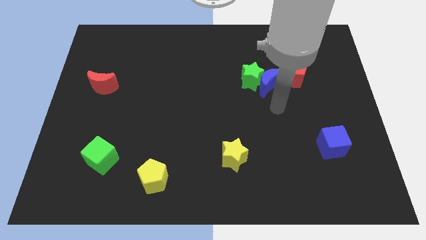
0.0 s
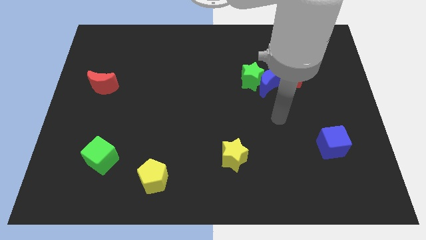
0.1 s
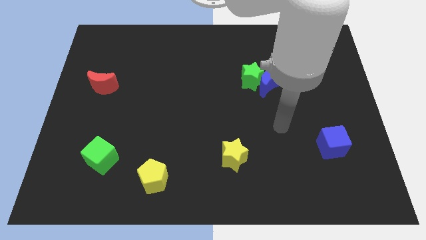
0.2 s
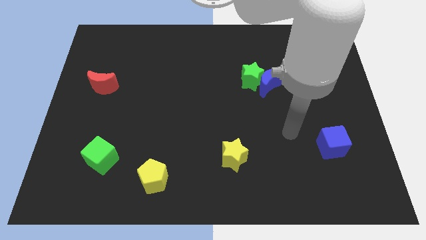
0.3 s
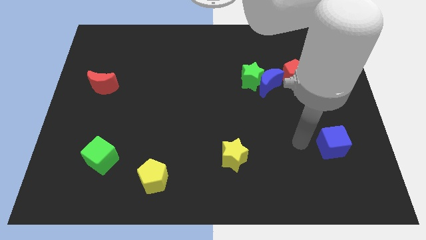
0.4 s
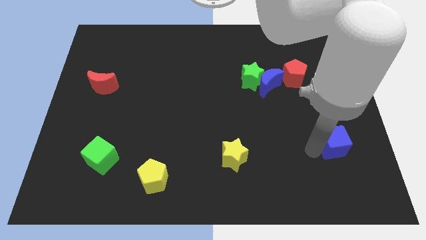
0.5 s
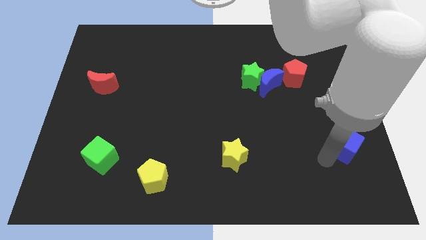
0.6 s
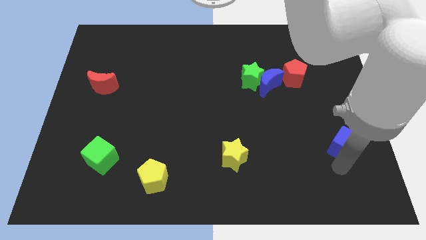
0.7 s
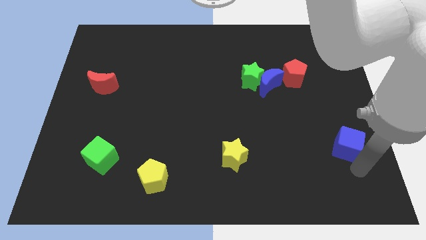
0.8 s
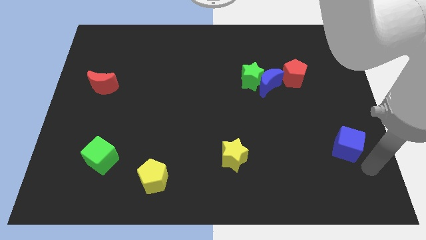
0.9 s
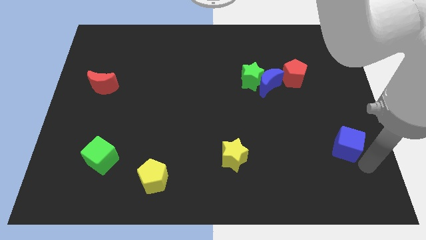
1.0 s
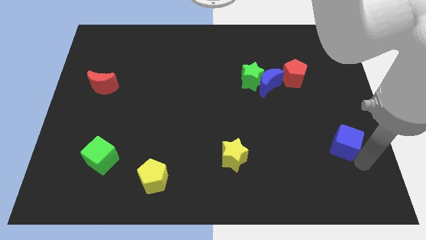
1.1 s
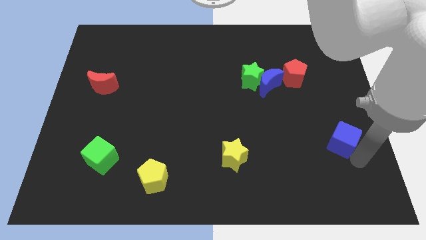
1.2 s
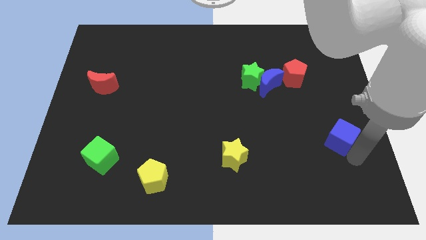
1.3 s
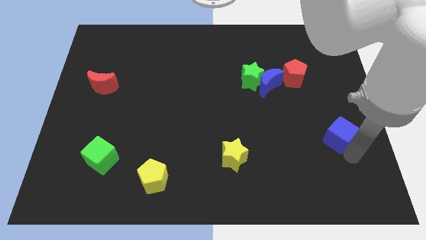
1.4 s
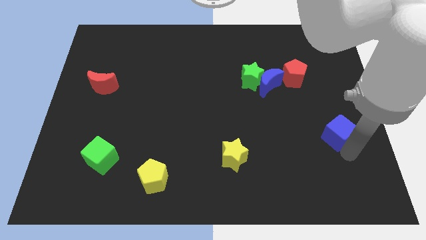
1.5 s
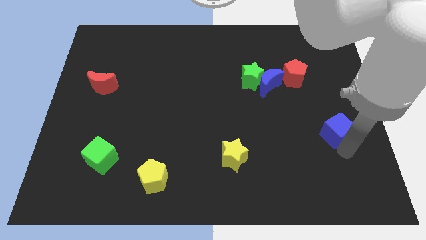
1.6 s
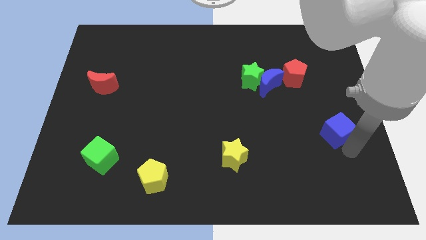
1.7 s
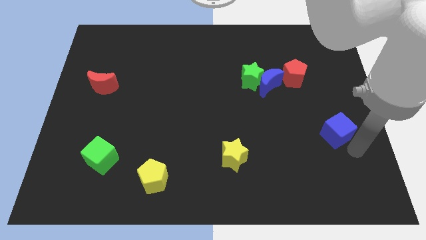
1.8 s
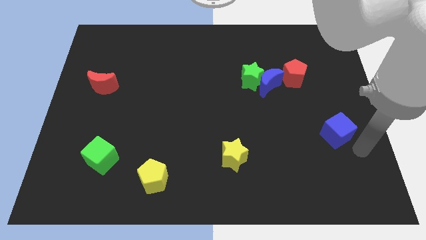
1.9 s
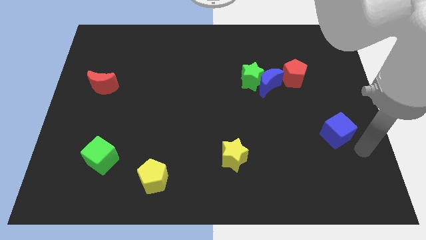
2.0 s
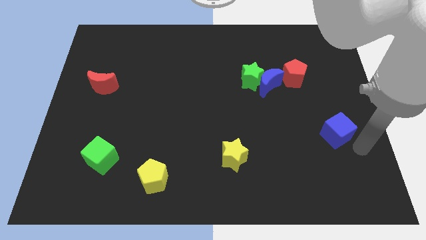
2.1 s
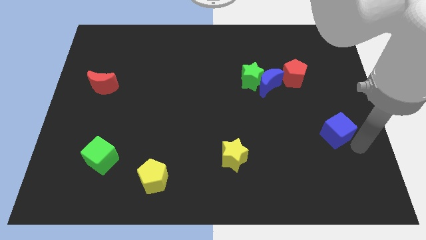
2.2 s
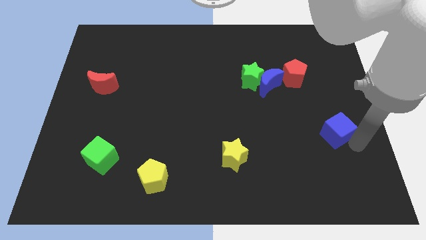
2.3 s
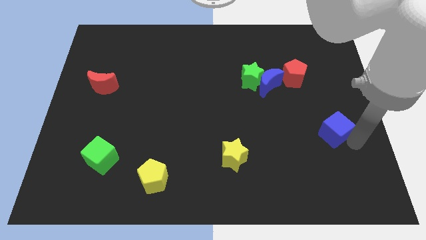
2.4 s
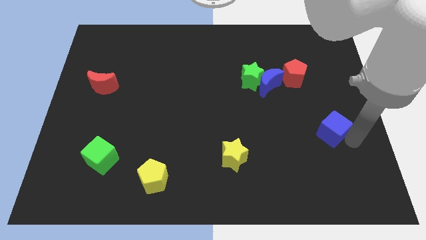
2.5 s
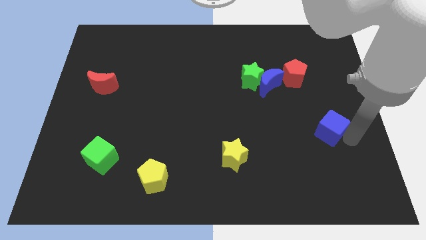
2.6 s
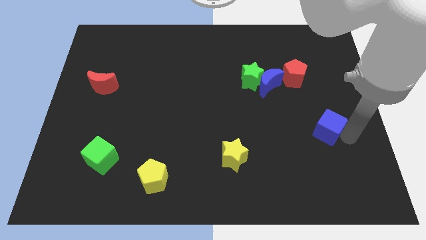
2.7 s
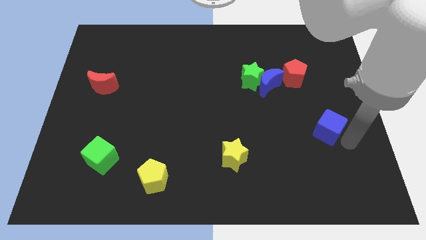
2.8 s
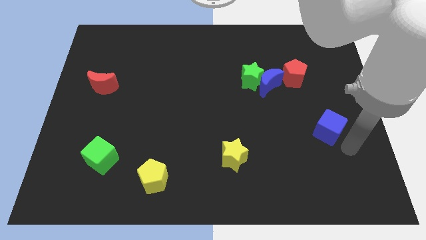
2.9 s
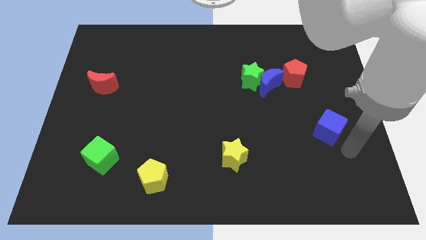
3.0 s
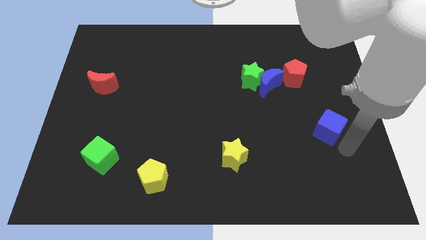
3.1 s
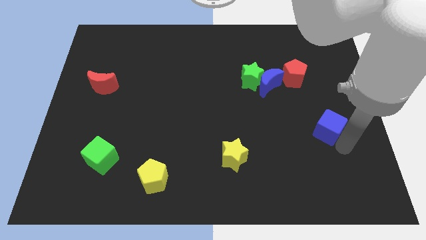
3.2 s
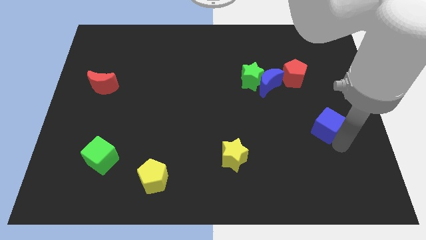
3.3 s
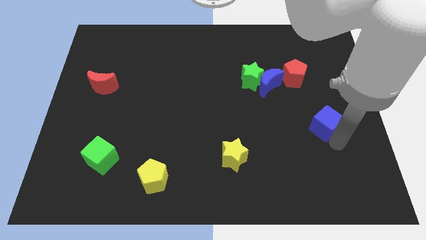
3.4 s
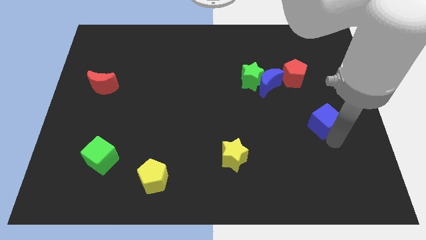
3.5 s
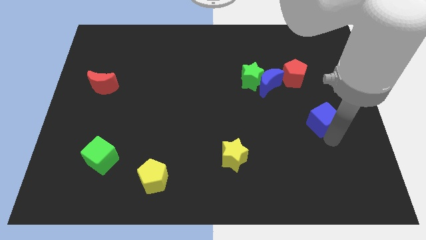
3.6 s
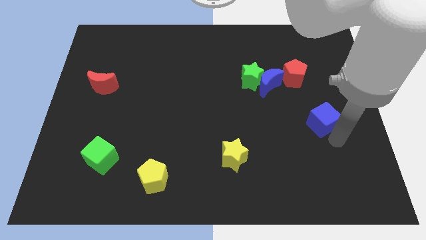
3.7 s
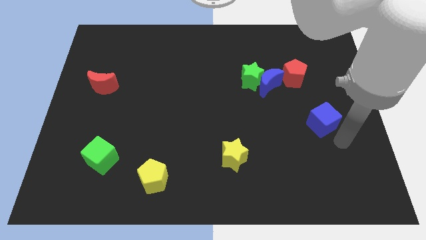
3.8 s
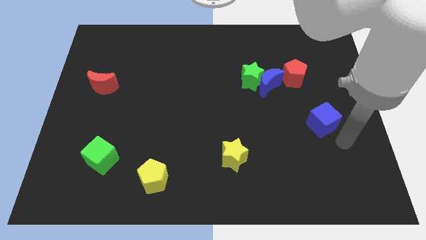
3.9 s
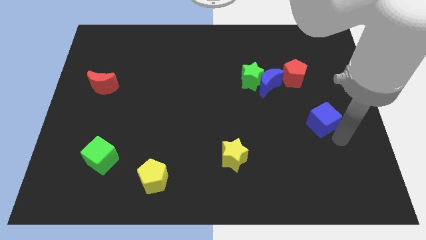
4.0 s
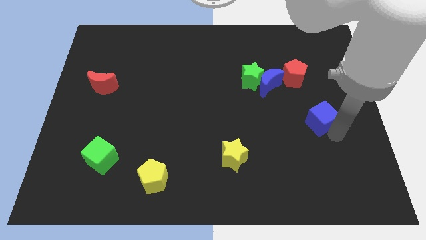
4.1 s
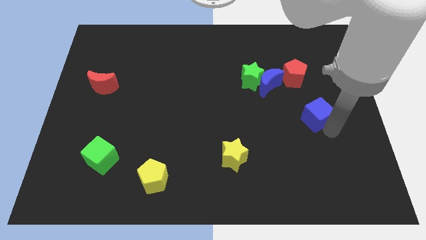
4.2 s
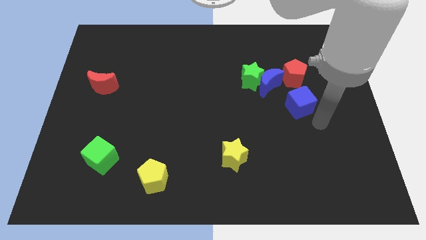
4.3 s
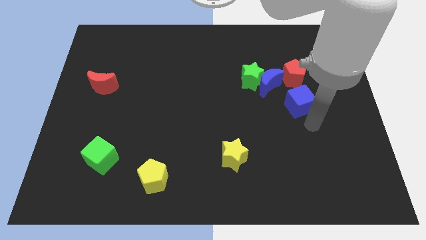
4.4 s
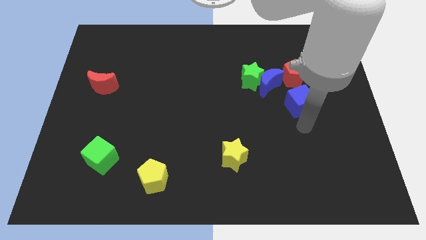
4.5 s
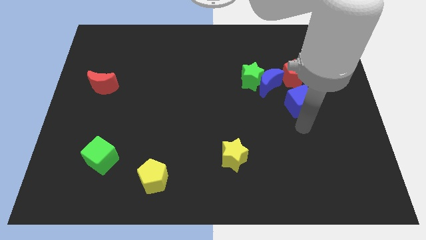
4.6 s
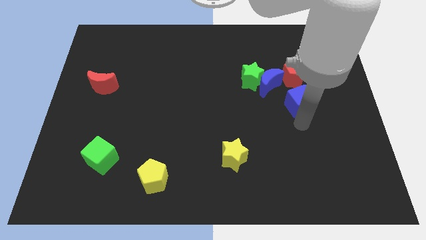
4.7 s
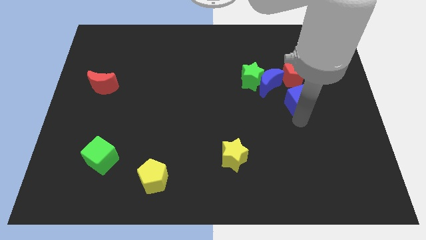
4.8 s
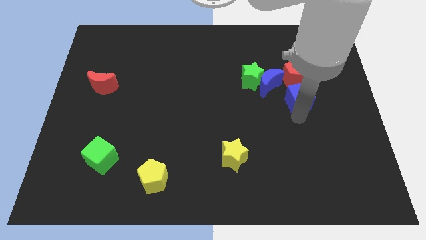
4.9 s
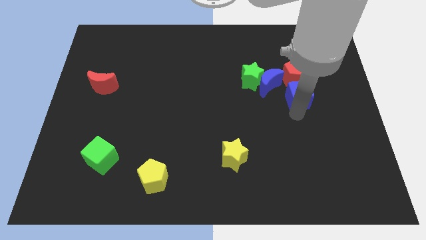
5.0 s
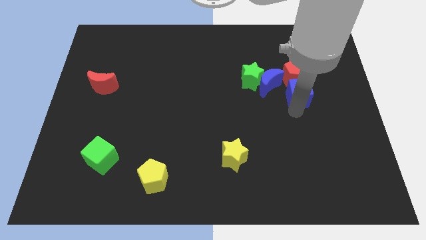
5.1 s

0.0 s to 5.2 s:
put the blue cube to the red pentagon

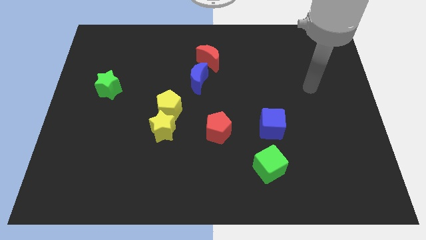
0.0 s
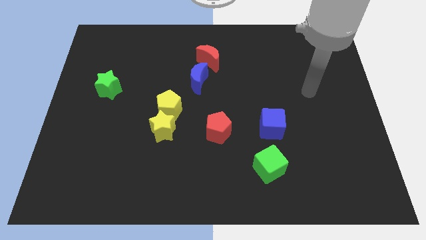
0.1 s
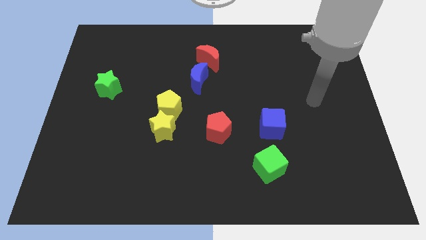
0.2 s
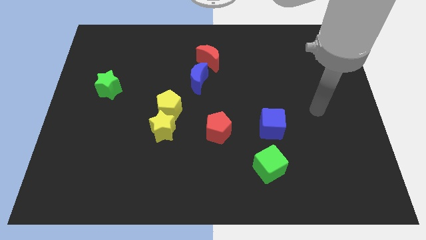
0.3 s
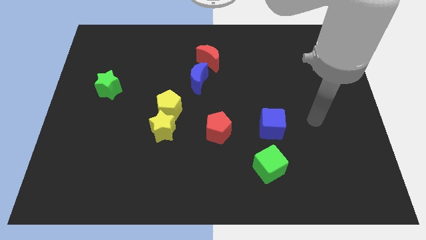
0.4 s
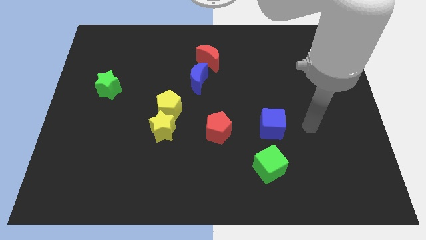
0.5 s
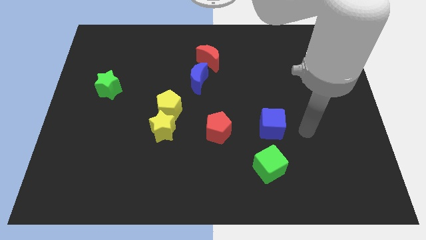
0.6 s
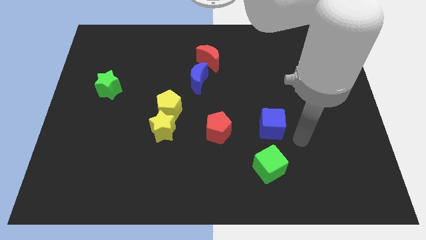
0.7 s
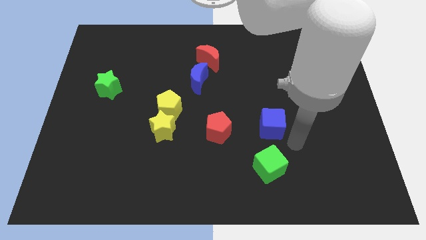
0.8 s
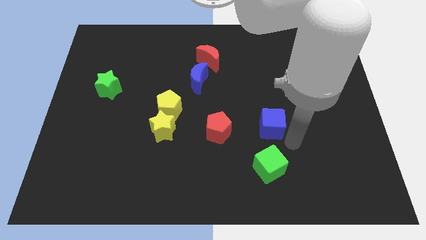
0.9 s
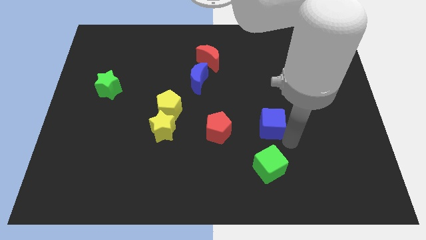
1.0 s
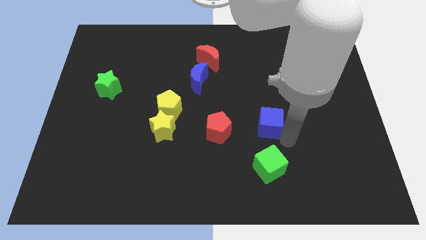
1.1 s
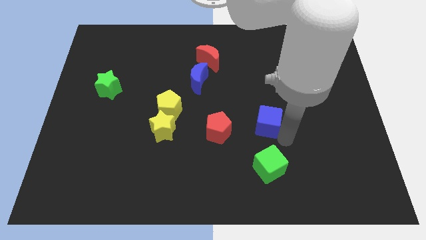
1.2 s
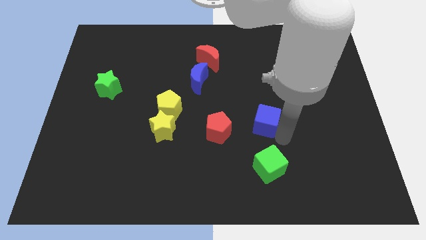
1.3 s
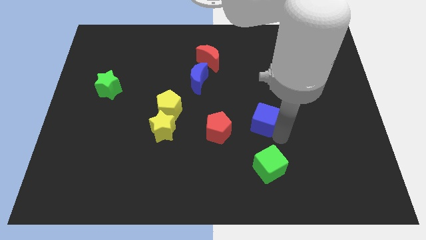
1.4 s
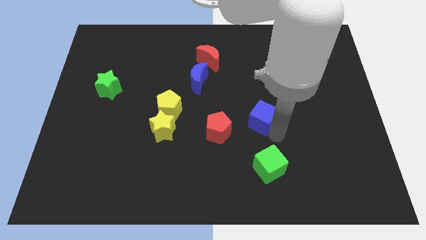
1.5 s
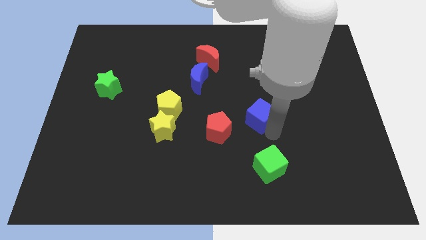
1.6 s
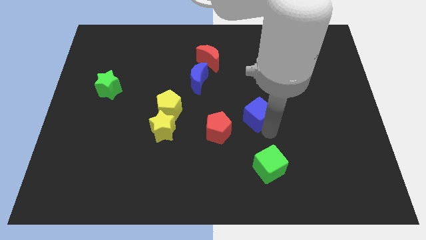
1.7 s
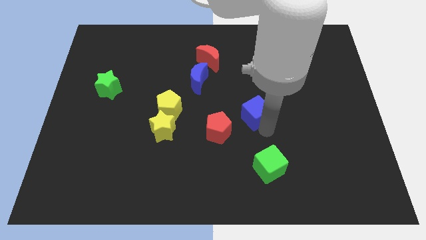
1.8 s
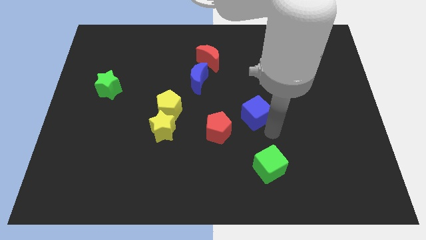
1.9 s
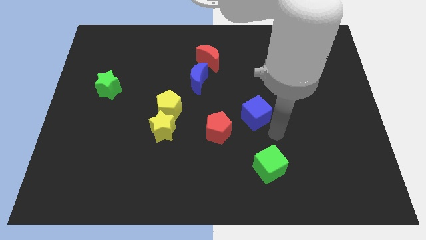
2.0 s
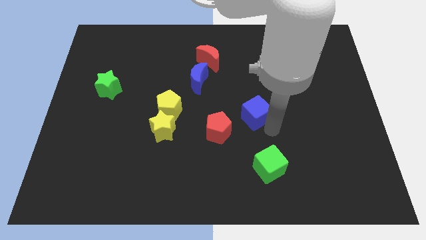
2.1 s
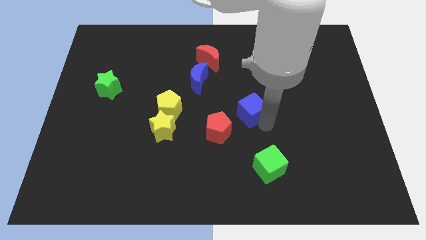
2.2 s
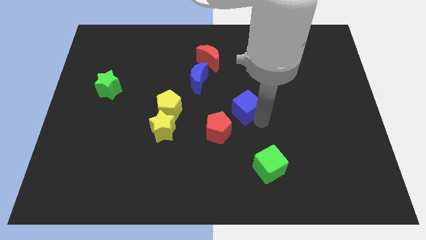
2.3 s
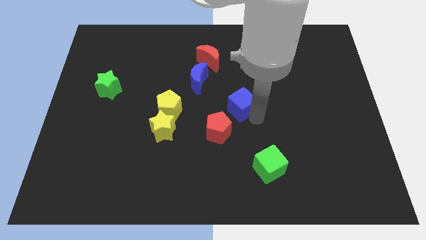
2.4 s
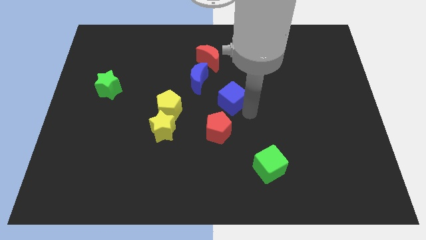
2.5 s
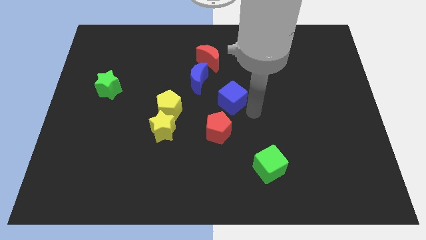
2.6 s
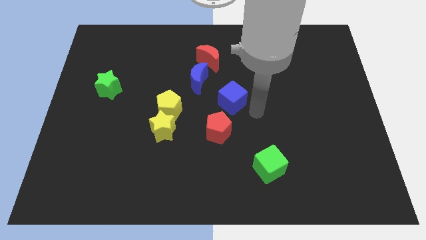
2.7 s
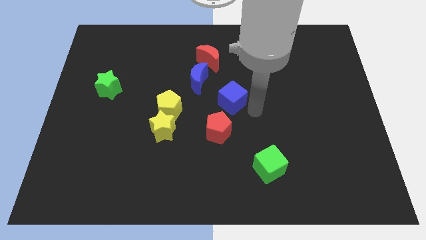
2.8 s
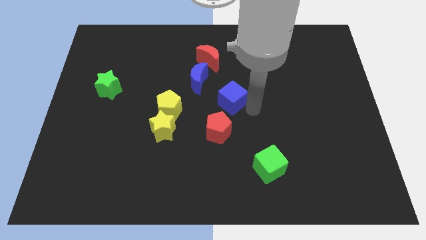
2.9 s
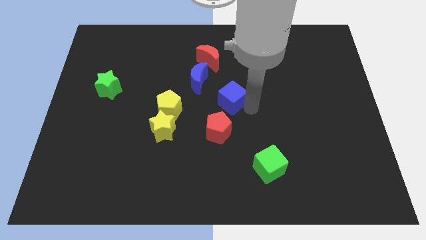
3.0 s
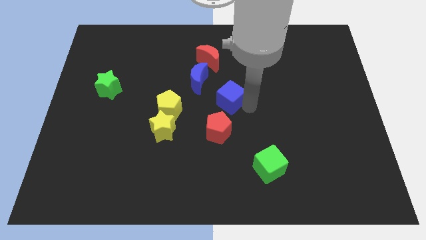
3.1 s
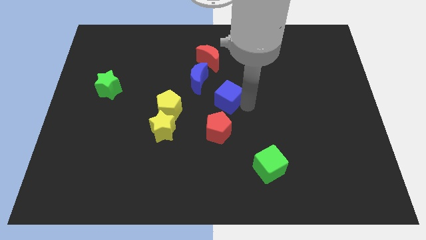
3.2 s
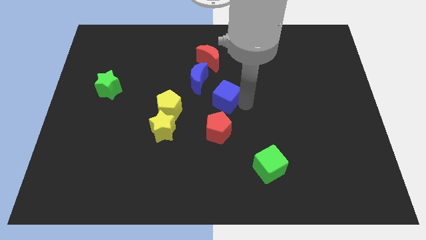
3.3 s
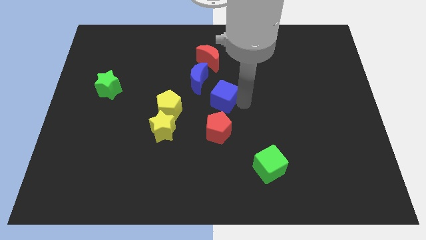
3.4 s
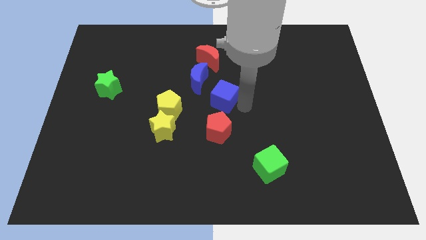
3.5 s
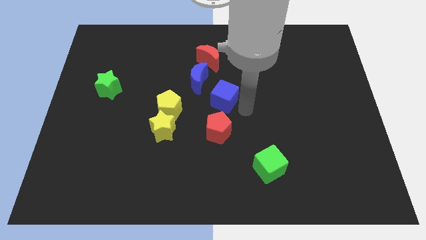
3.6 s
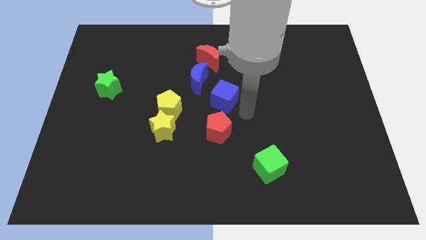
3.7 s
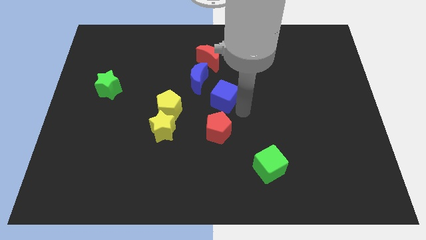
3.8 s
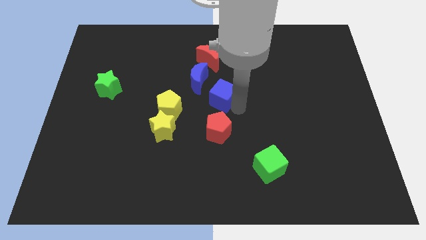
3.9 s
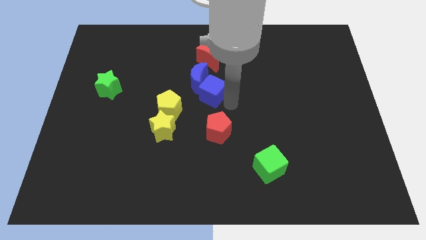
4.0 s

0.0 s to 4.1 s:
slide the blue cube close to the blue moon
